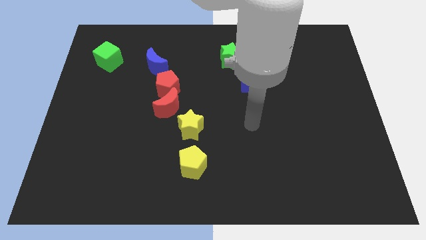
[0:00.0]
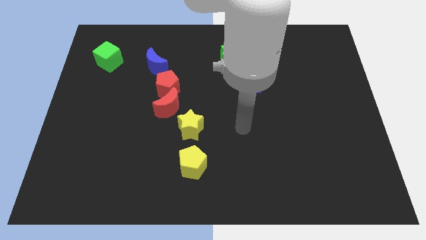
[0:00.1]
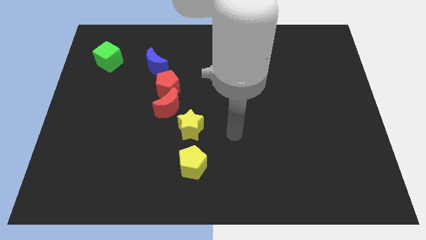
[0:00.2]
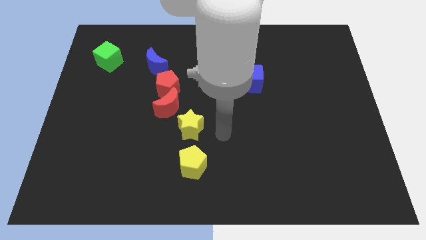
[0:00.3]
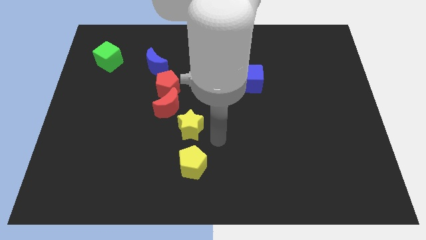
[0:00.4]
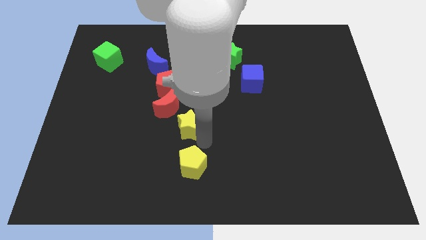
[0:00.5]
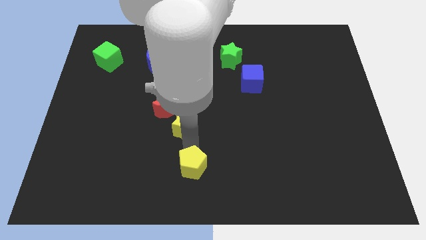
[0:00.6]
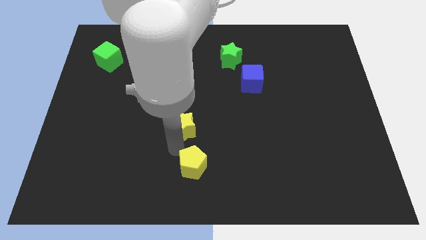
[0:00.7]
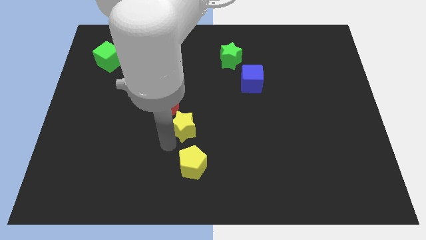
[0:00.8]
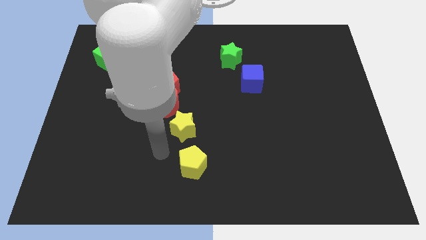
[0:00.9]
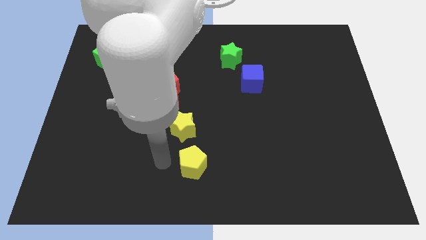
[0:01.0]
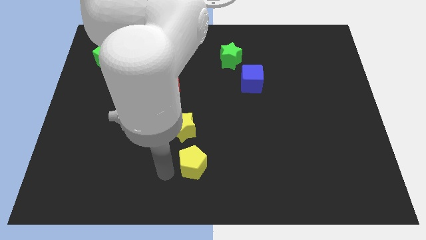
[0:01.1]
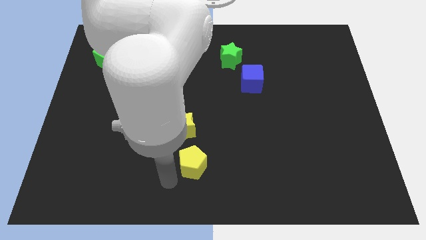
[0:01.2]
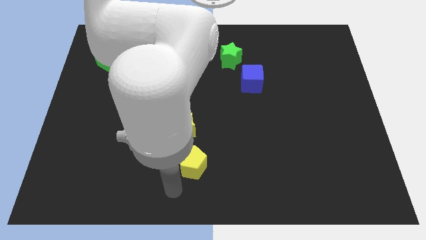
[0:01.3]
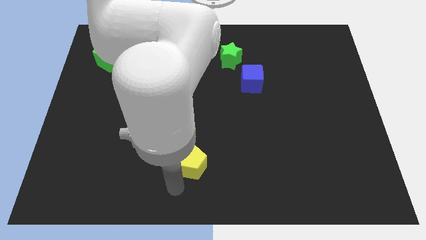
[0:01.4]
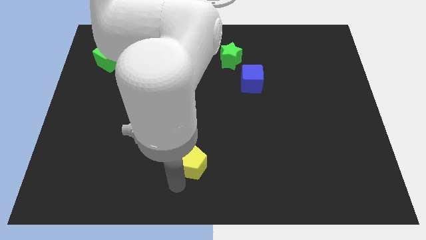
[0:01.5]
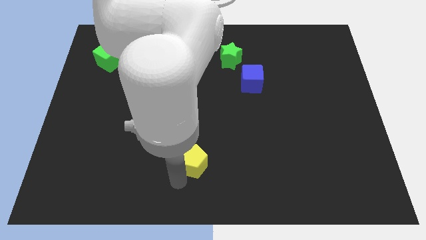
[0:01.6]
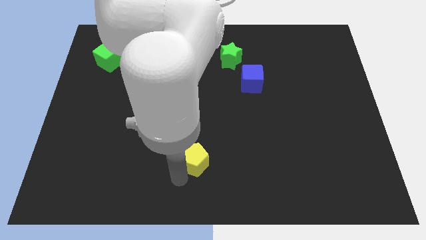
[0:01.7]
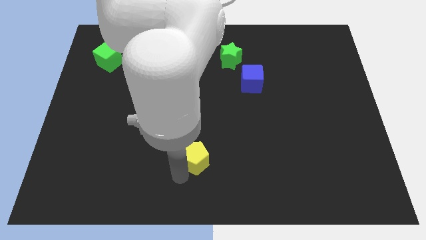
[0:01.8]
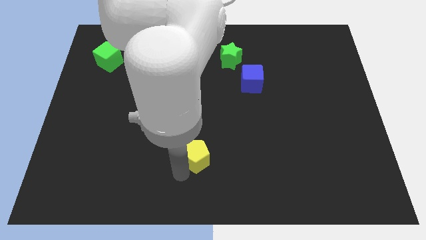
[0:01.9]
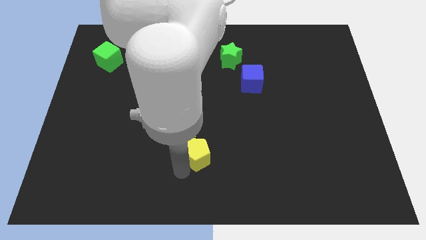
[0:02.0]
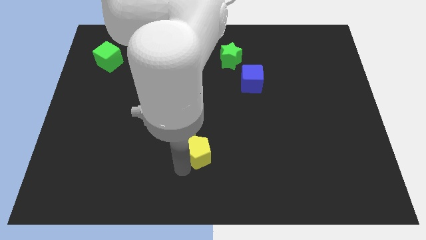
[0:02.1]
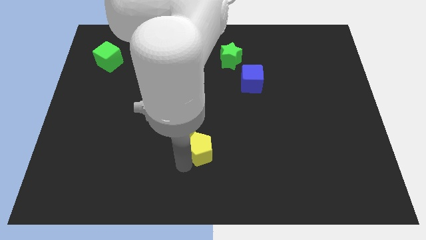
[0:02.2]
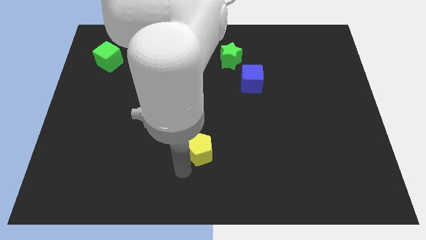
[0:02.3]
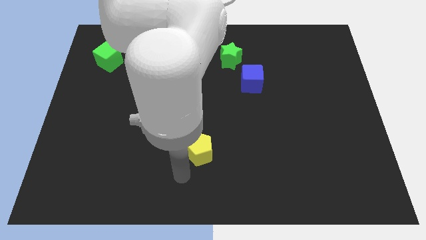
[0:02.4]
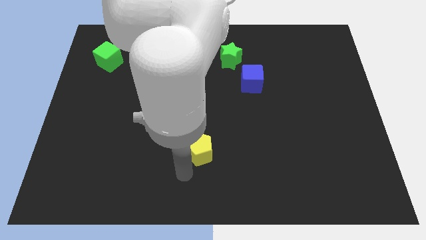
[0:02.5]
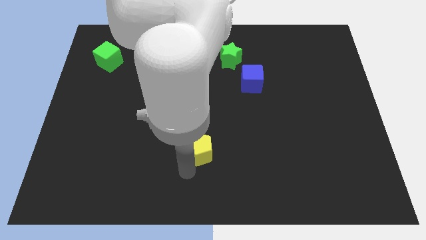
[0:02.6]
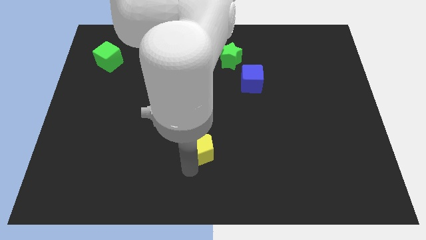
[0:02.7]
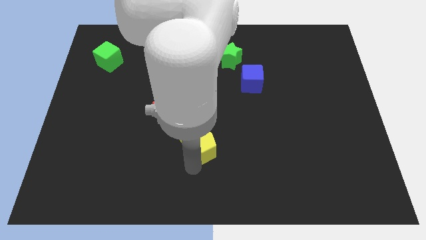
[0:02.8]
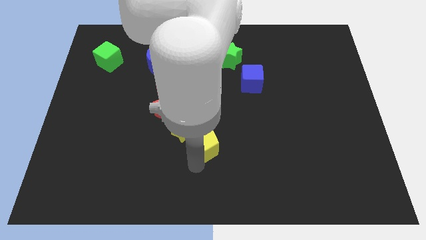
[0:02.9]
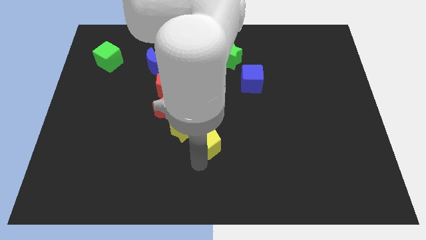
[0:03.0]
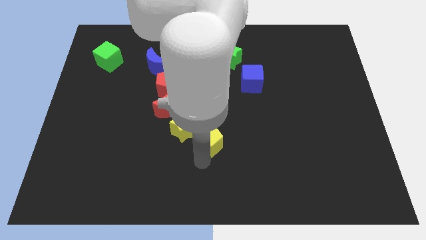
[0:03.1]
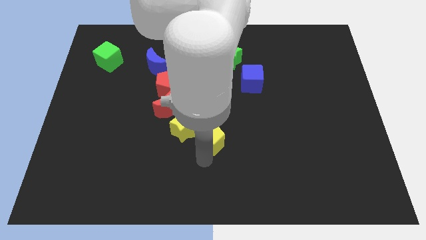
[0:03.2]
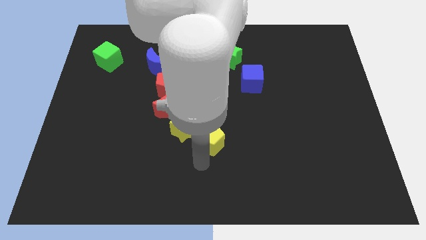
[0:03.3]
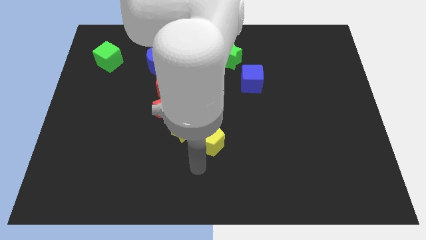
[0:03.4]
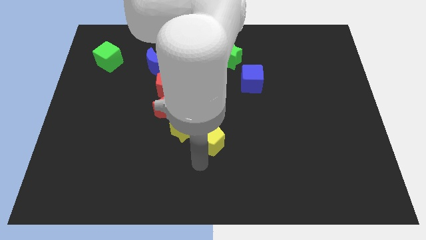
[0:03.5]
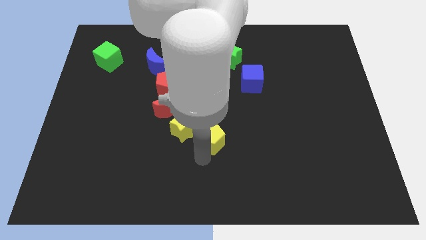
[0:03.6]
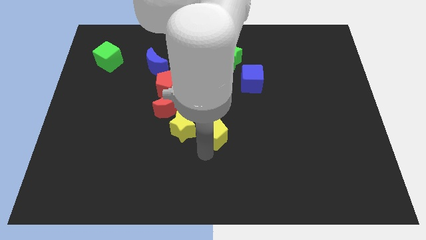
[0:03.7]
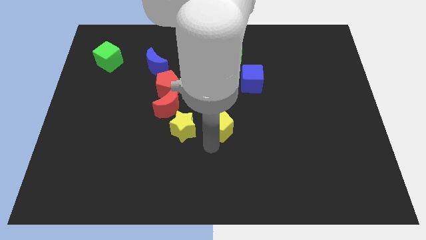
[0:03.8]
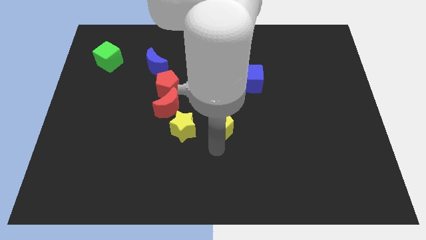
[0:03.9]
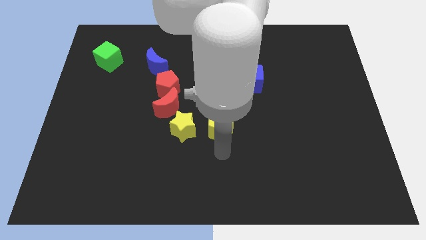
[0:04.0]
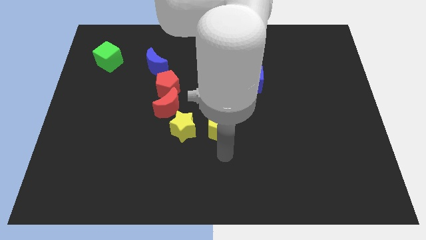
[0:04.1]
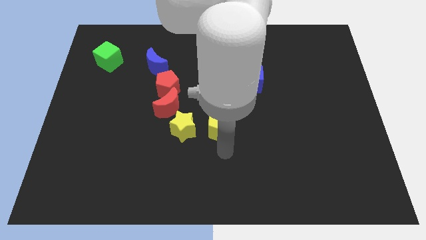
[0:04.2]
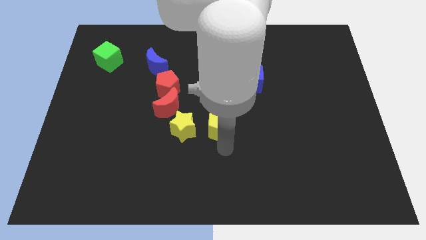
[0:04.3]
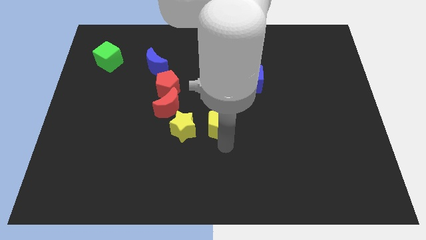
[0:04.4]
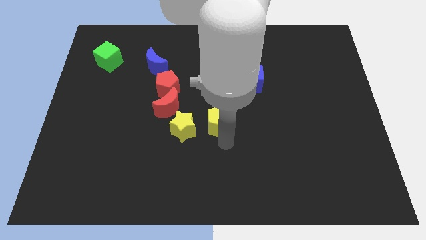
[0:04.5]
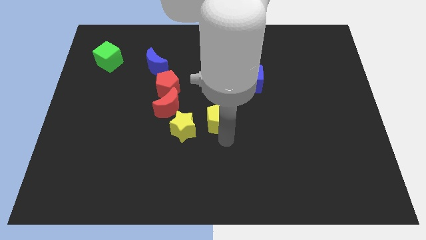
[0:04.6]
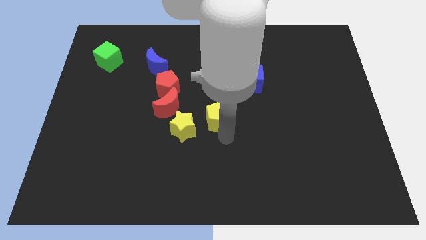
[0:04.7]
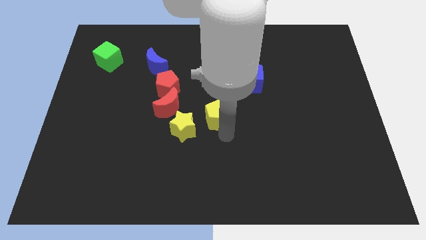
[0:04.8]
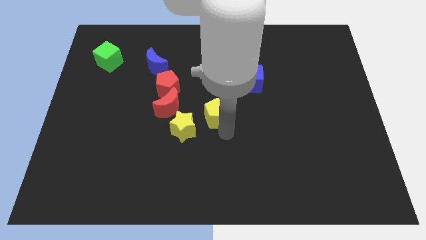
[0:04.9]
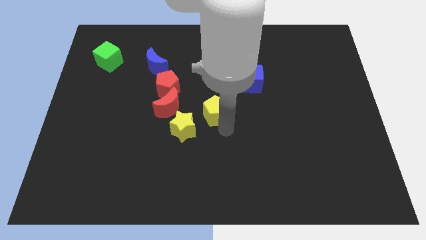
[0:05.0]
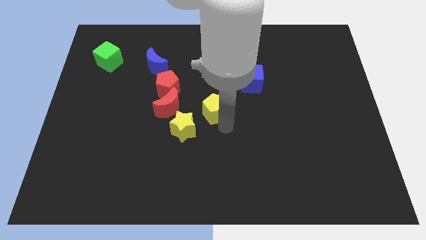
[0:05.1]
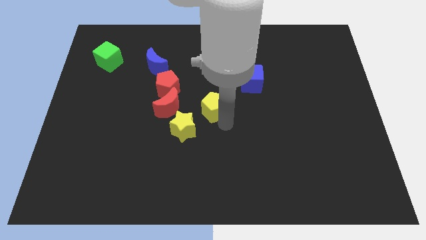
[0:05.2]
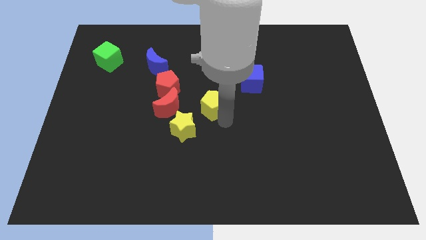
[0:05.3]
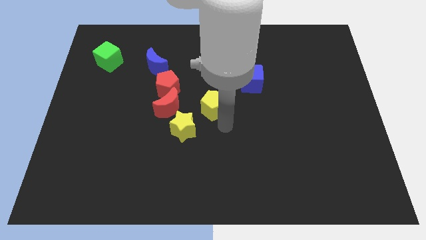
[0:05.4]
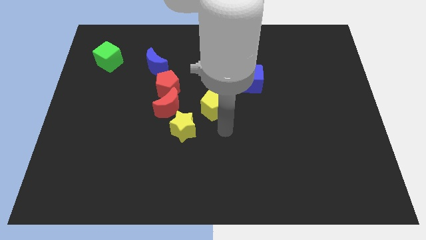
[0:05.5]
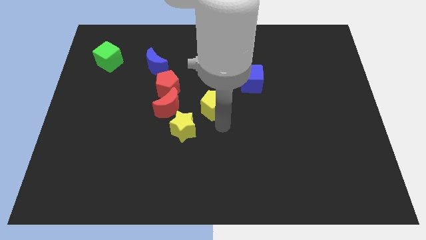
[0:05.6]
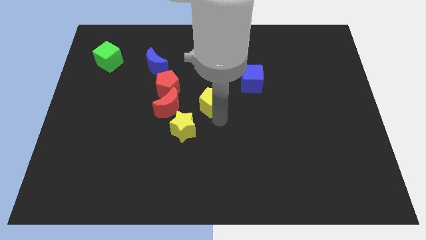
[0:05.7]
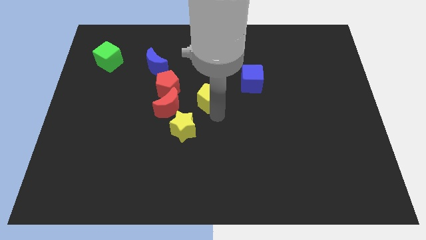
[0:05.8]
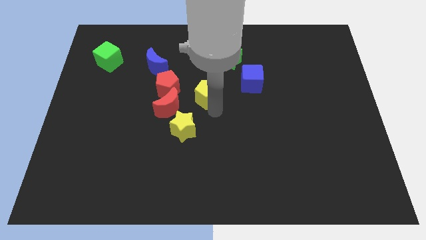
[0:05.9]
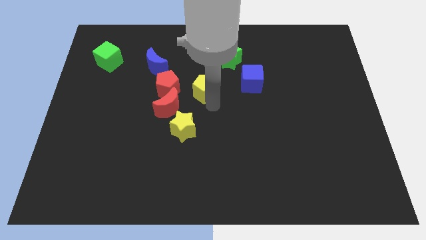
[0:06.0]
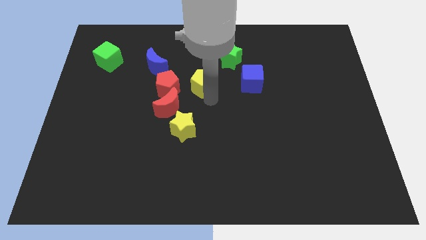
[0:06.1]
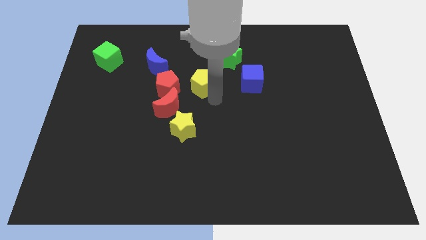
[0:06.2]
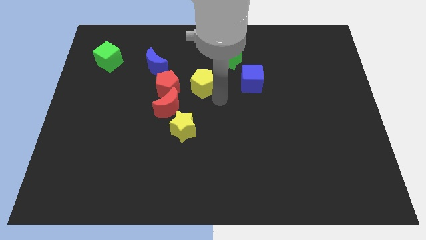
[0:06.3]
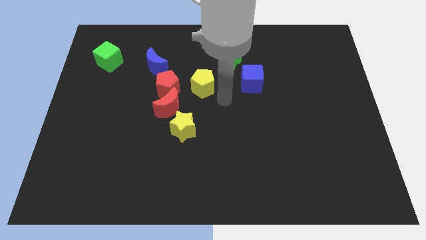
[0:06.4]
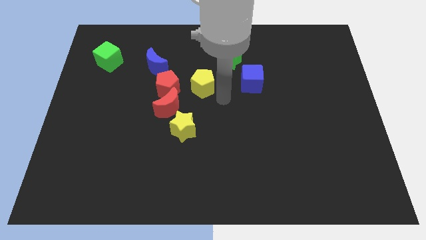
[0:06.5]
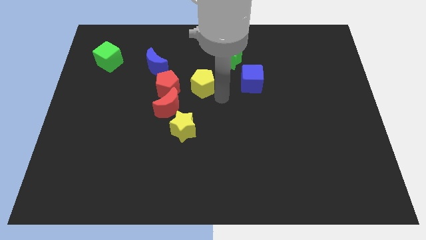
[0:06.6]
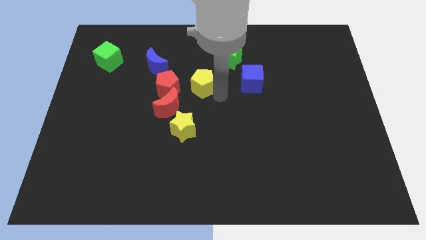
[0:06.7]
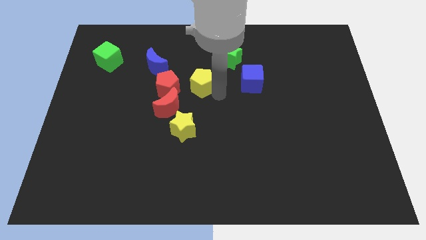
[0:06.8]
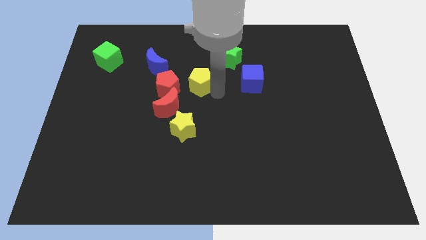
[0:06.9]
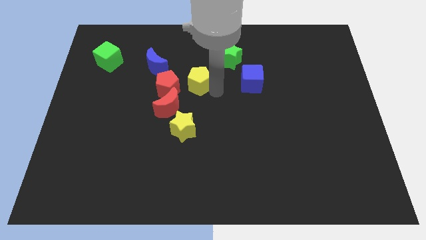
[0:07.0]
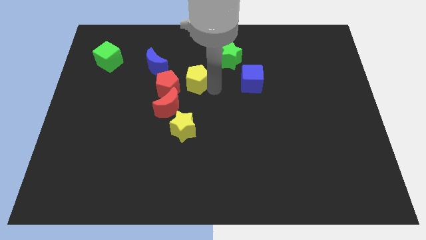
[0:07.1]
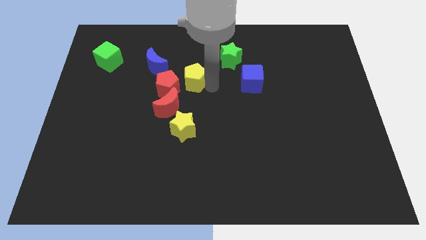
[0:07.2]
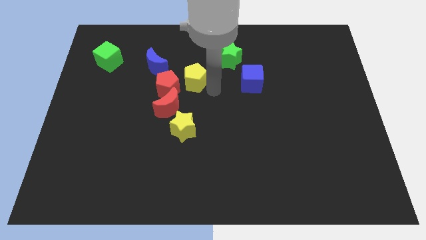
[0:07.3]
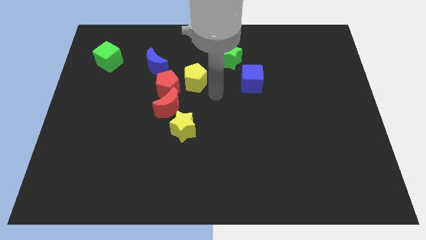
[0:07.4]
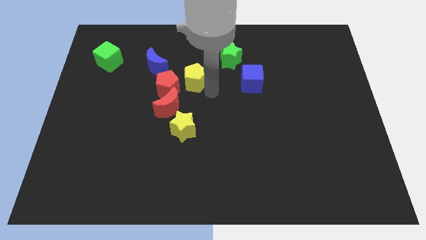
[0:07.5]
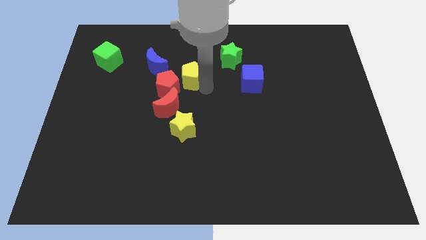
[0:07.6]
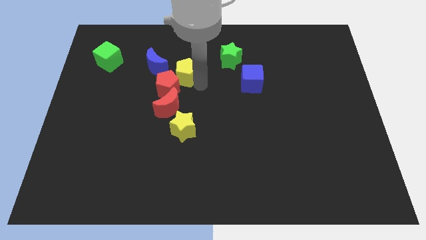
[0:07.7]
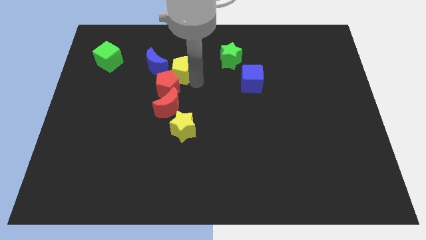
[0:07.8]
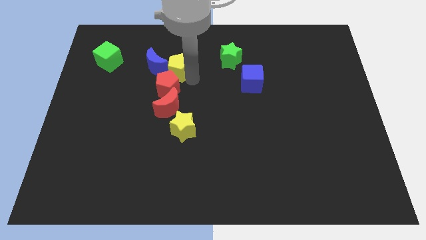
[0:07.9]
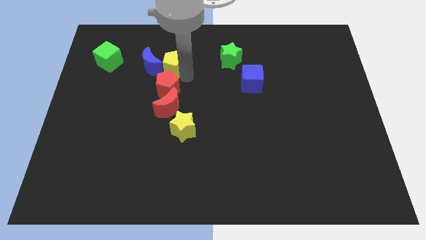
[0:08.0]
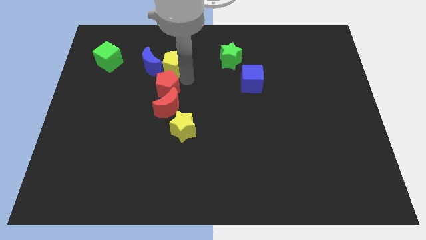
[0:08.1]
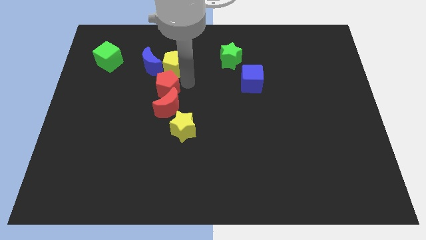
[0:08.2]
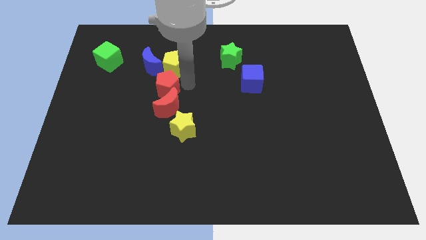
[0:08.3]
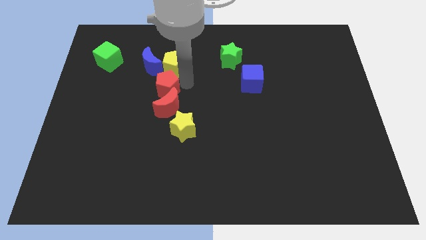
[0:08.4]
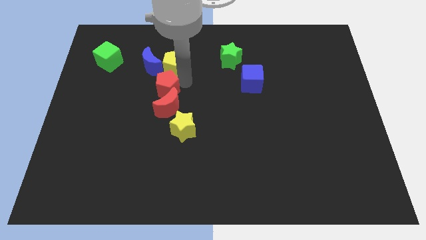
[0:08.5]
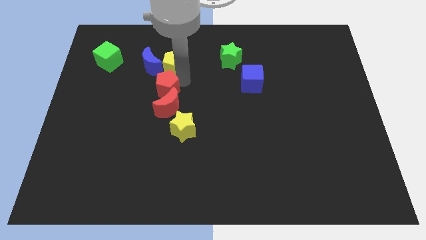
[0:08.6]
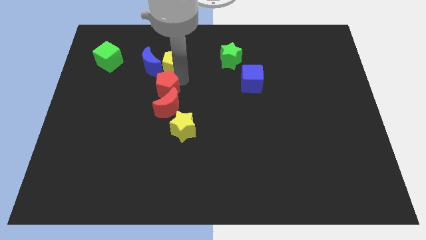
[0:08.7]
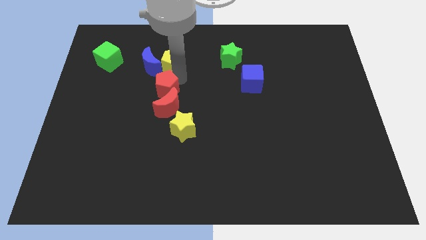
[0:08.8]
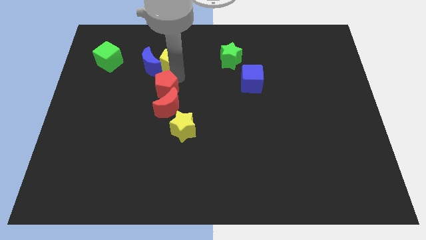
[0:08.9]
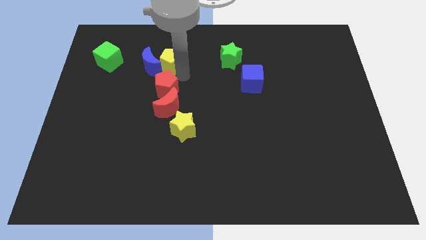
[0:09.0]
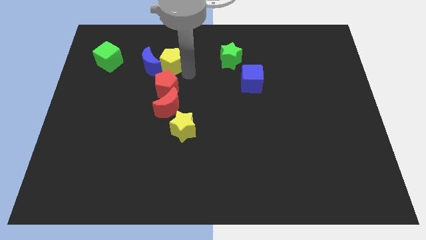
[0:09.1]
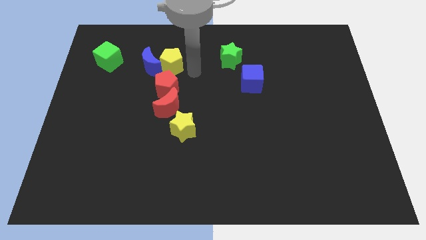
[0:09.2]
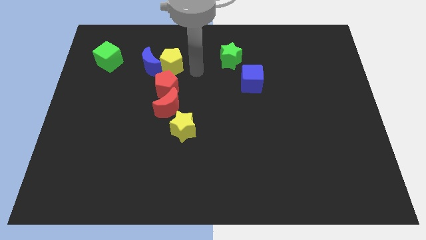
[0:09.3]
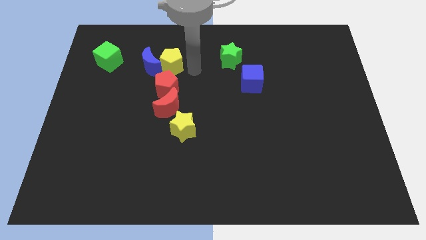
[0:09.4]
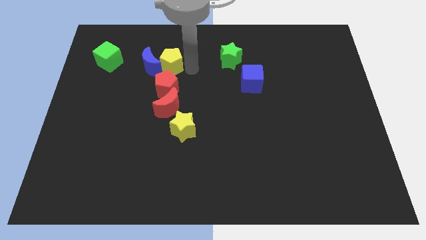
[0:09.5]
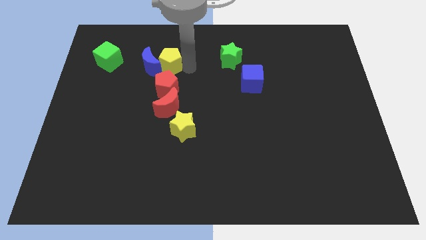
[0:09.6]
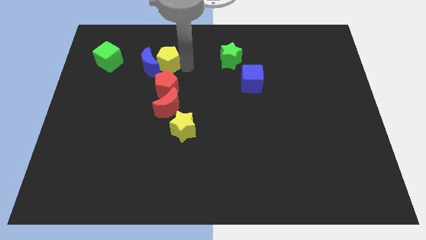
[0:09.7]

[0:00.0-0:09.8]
slide the yellow pentagon right of the green cube
